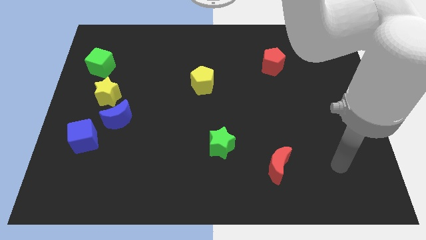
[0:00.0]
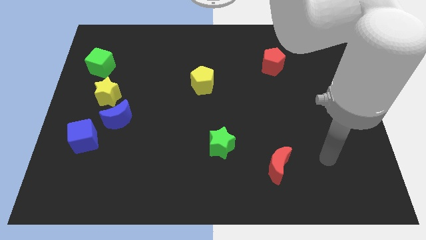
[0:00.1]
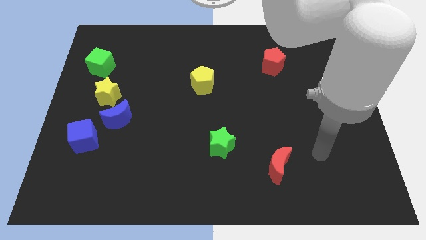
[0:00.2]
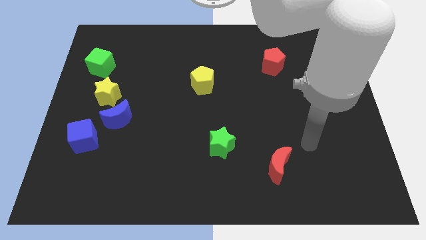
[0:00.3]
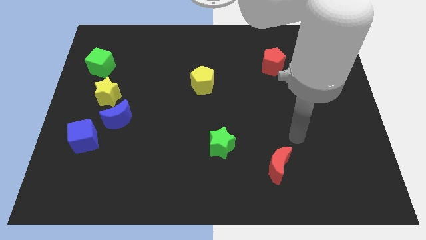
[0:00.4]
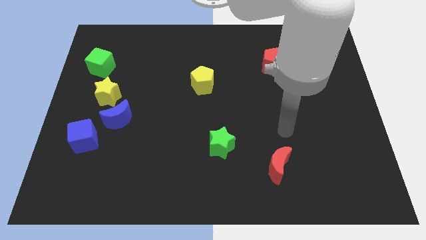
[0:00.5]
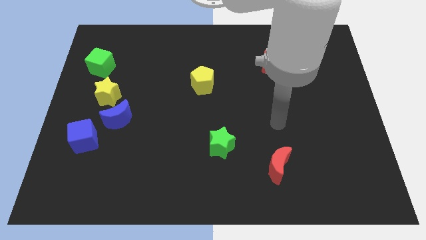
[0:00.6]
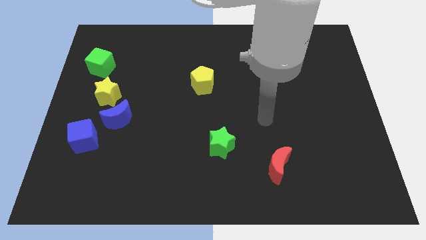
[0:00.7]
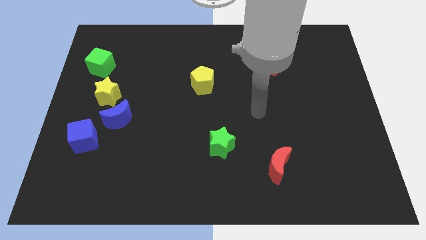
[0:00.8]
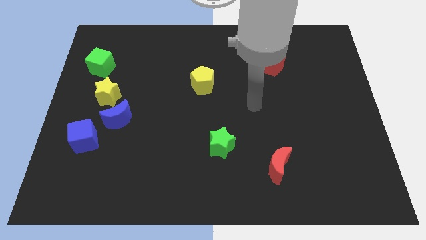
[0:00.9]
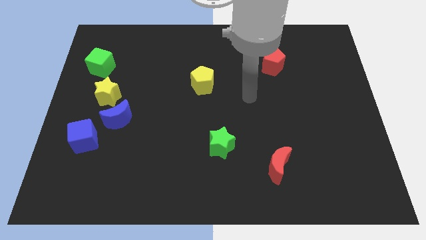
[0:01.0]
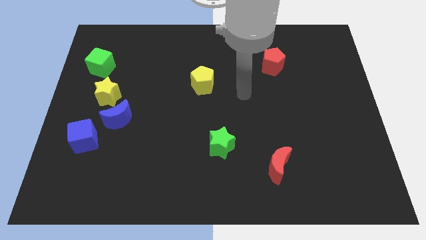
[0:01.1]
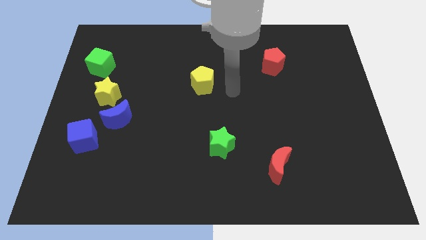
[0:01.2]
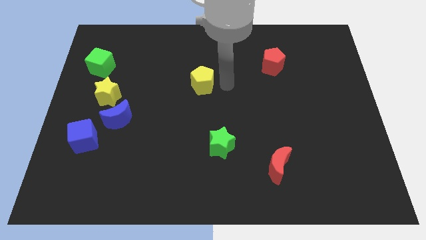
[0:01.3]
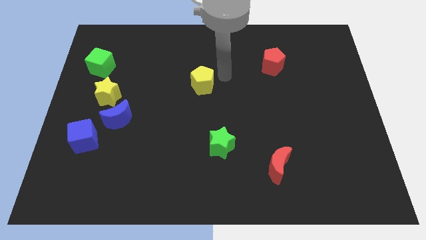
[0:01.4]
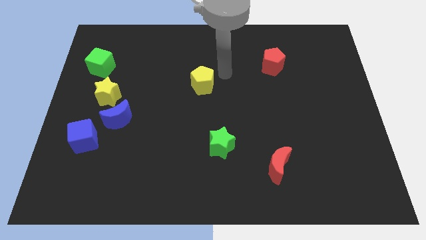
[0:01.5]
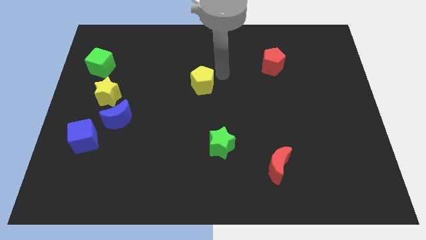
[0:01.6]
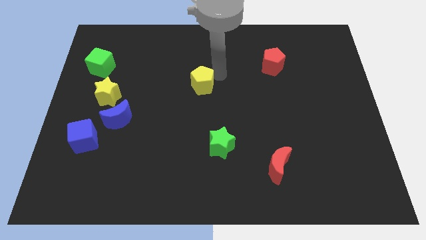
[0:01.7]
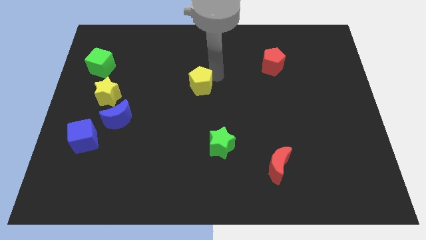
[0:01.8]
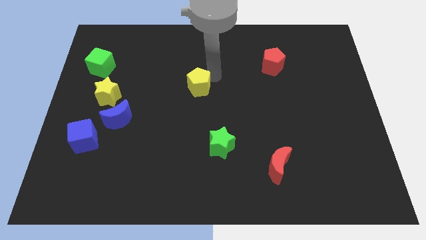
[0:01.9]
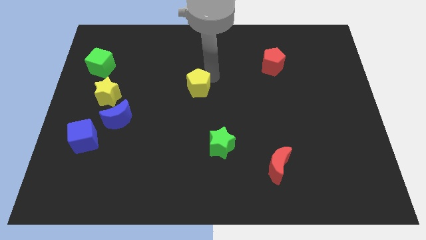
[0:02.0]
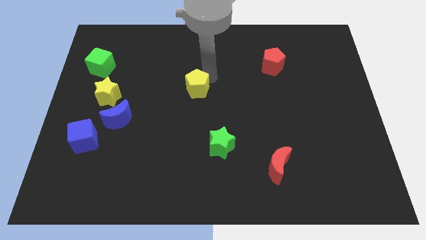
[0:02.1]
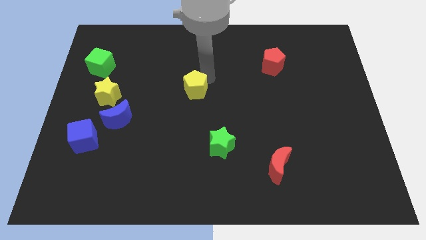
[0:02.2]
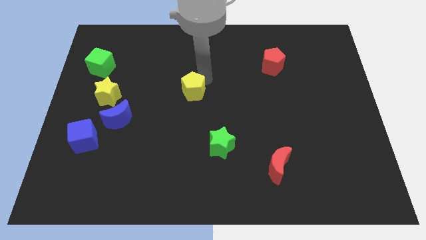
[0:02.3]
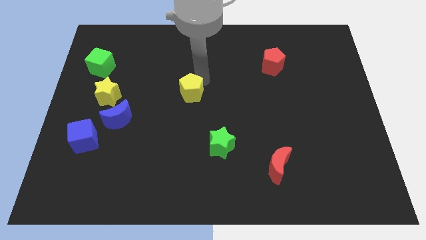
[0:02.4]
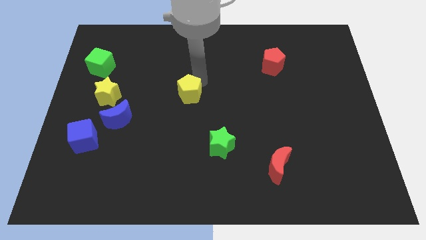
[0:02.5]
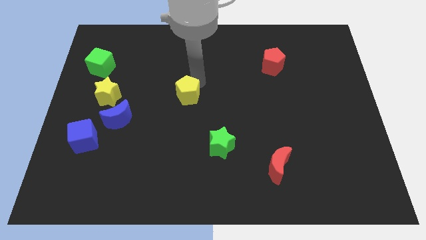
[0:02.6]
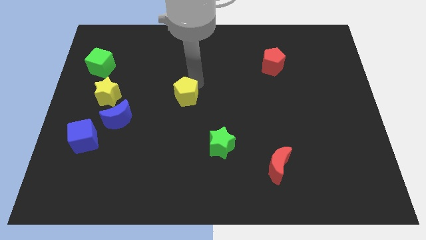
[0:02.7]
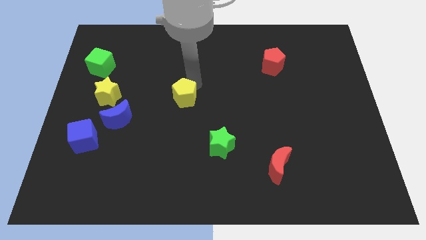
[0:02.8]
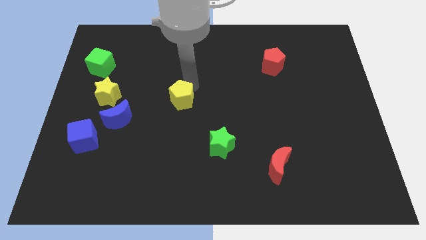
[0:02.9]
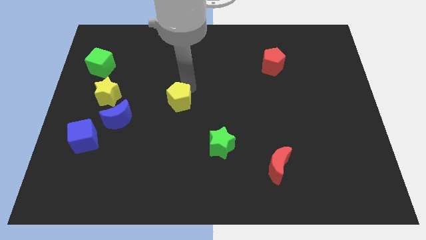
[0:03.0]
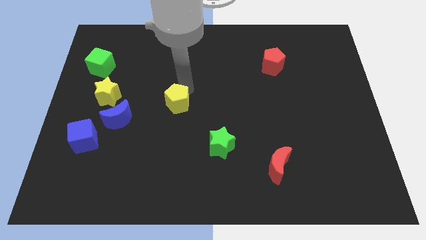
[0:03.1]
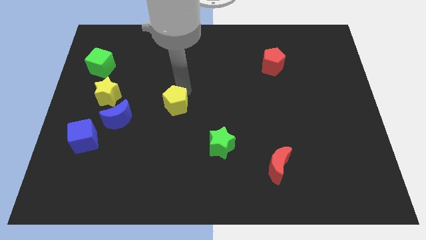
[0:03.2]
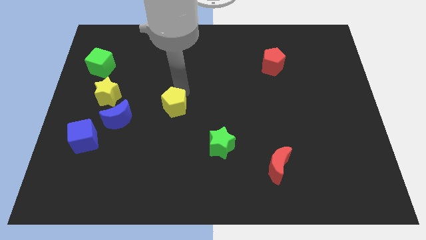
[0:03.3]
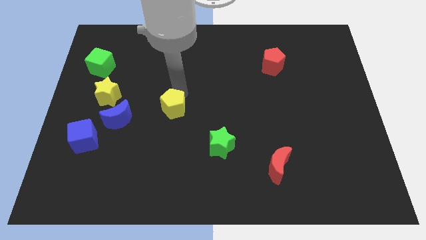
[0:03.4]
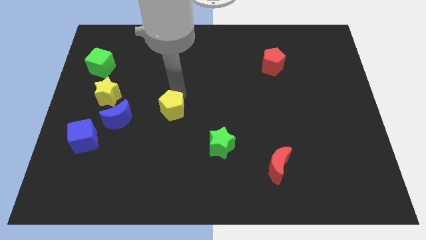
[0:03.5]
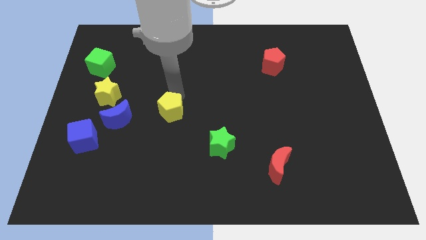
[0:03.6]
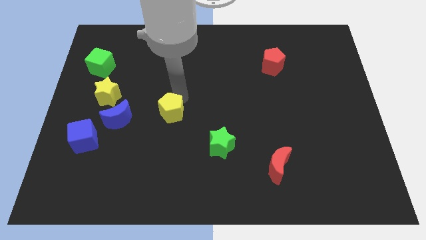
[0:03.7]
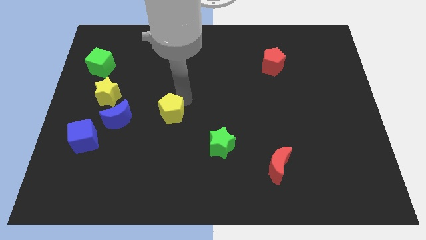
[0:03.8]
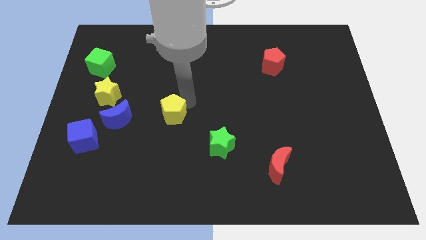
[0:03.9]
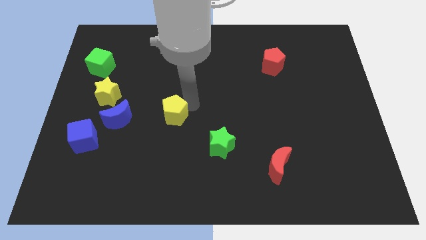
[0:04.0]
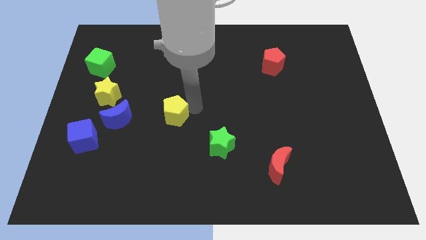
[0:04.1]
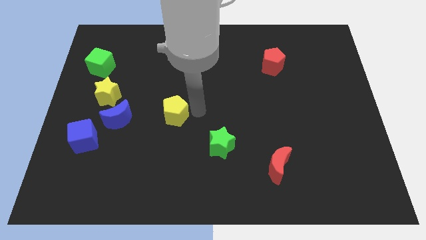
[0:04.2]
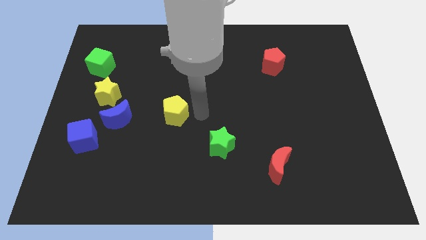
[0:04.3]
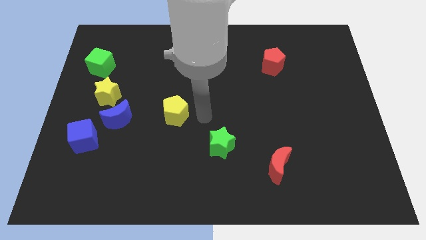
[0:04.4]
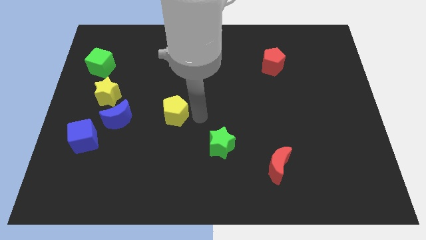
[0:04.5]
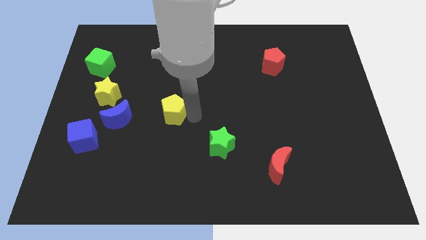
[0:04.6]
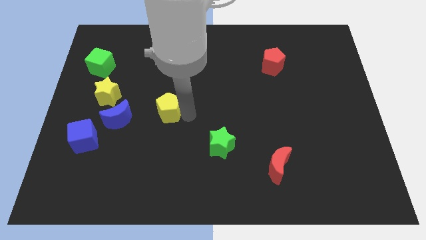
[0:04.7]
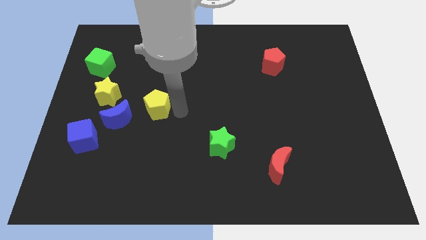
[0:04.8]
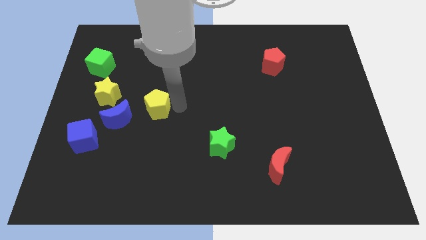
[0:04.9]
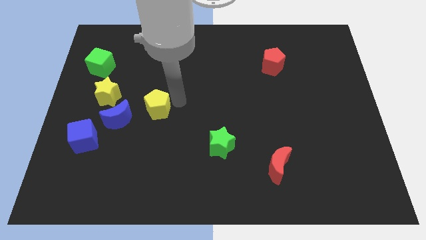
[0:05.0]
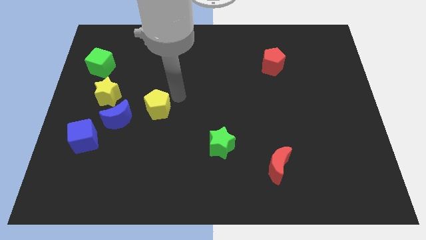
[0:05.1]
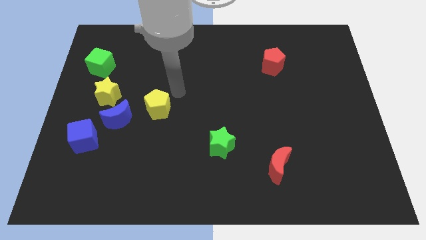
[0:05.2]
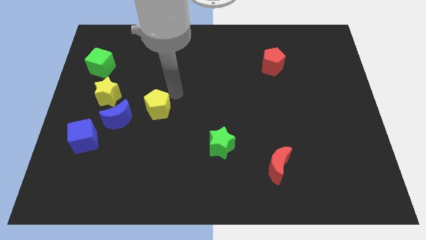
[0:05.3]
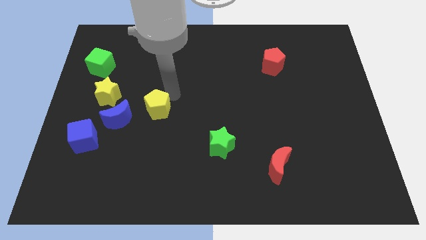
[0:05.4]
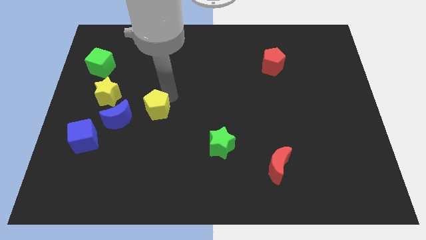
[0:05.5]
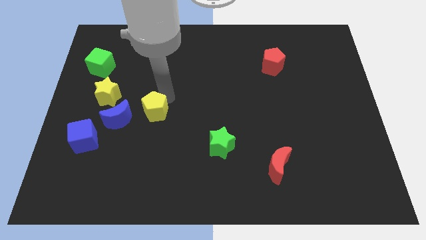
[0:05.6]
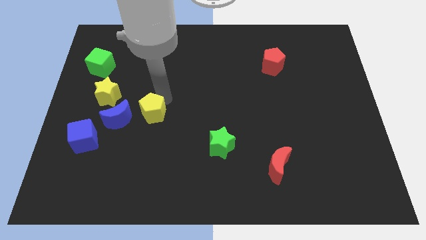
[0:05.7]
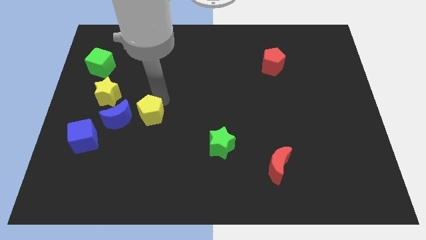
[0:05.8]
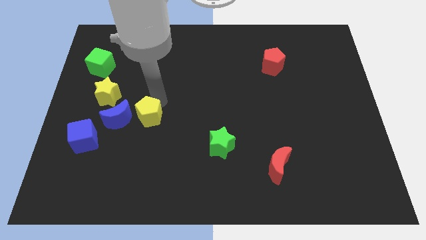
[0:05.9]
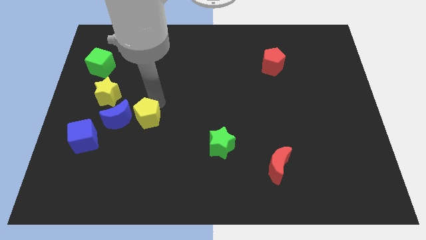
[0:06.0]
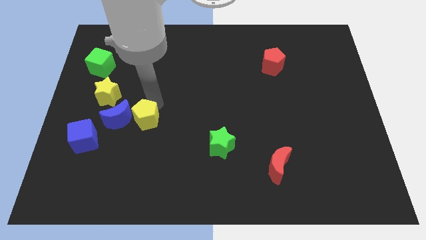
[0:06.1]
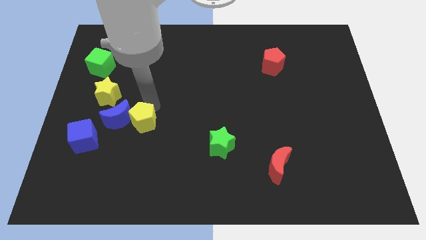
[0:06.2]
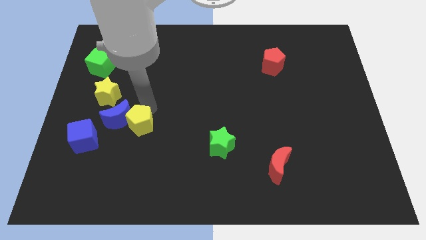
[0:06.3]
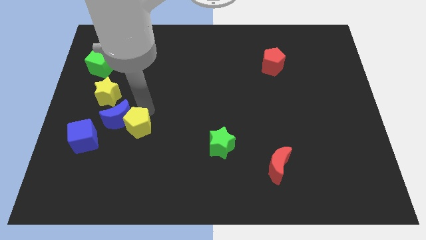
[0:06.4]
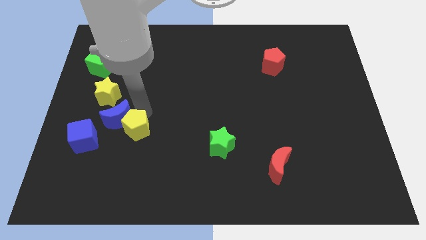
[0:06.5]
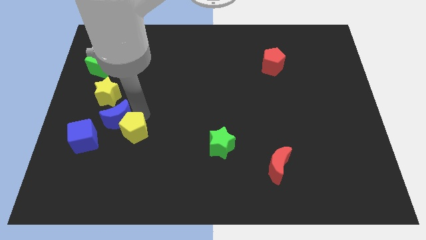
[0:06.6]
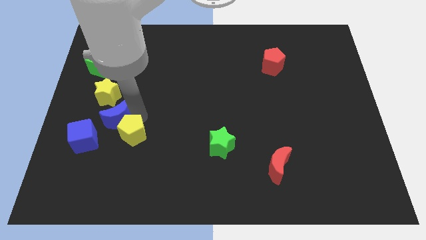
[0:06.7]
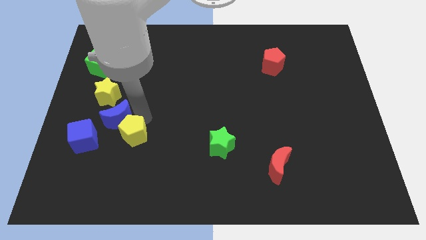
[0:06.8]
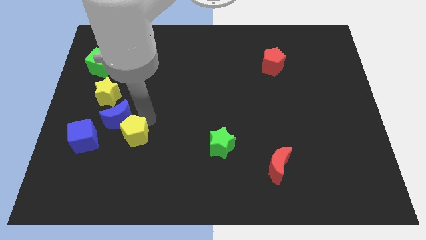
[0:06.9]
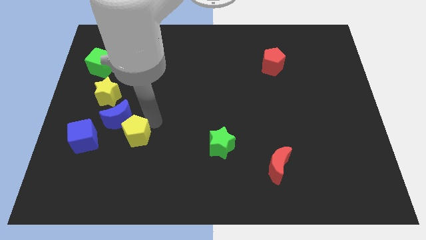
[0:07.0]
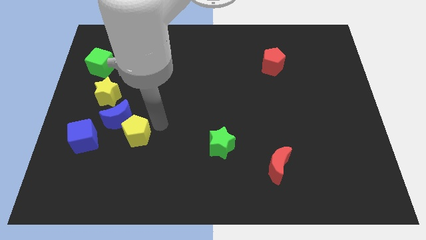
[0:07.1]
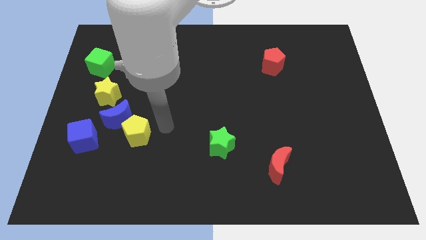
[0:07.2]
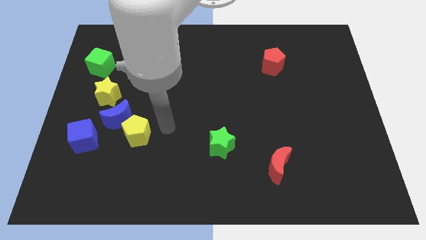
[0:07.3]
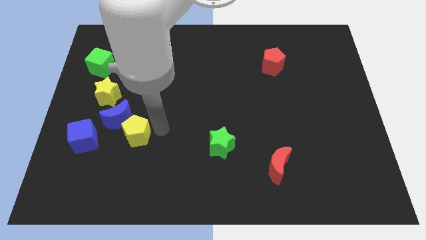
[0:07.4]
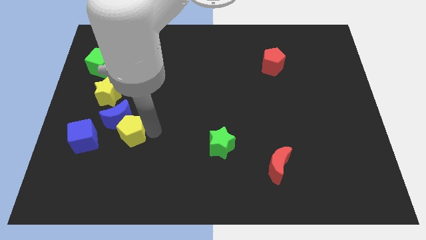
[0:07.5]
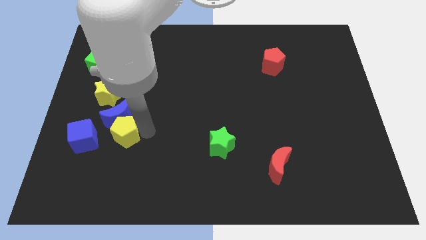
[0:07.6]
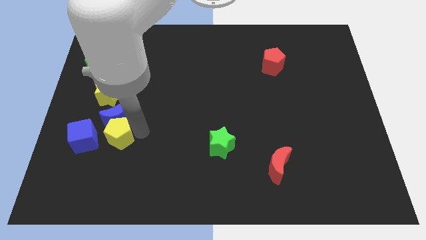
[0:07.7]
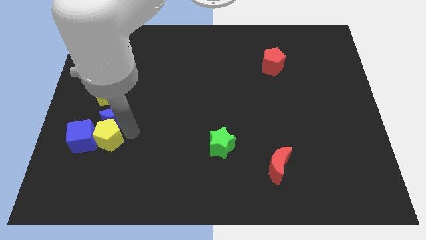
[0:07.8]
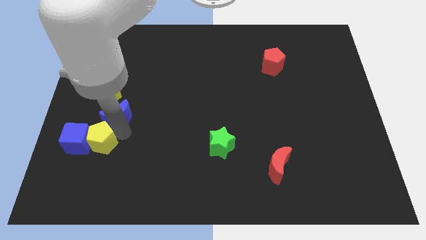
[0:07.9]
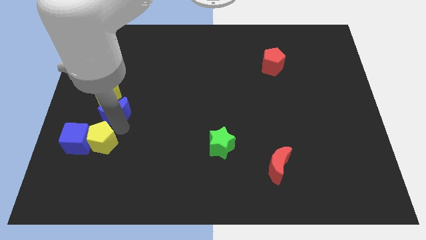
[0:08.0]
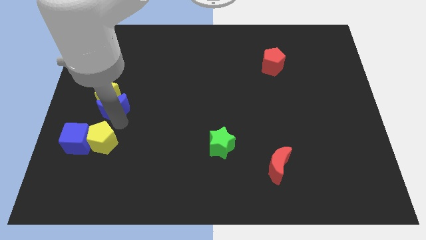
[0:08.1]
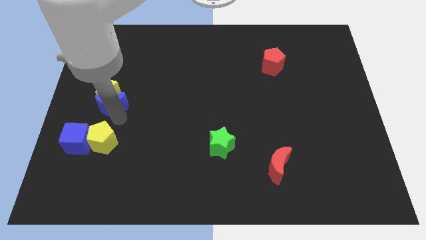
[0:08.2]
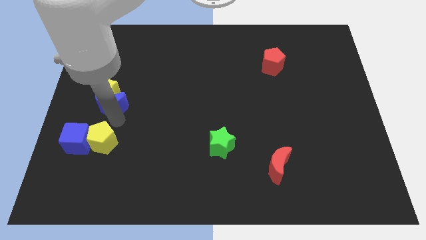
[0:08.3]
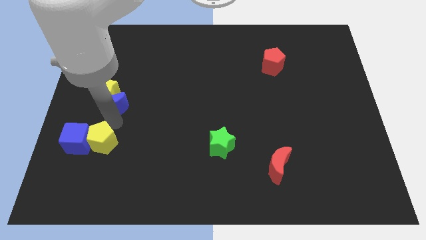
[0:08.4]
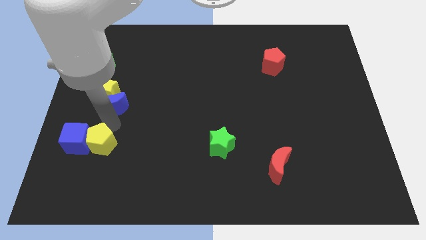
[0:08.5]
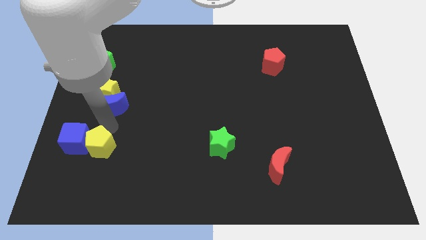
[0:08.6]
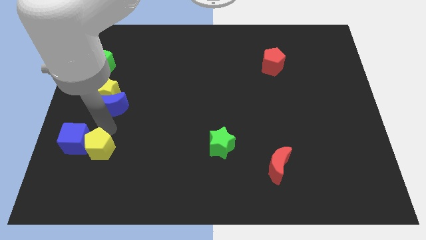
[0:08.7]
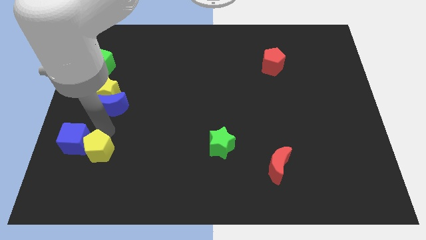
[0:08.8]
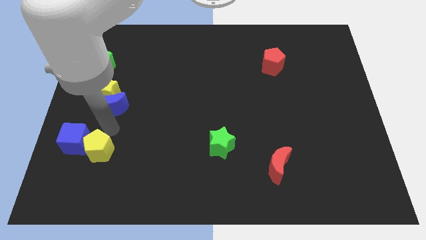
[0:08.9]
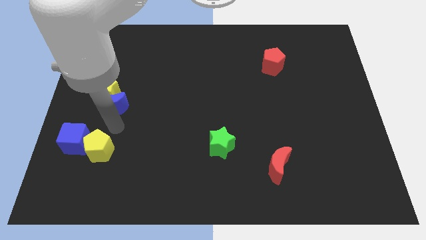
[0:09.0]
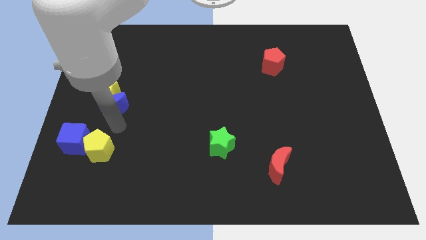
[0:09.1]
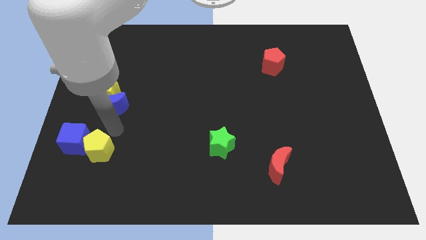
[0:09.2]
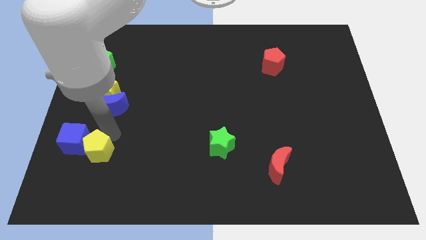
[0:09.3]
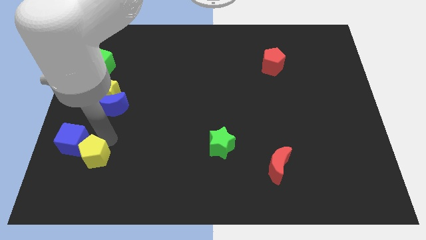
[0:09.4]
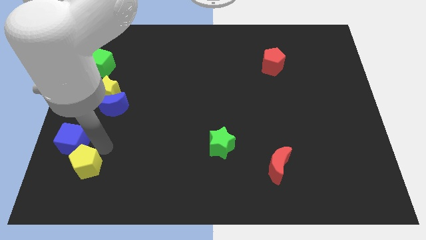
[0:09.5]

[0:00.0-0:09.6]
push the yellow pentagon to the bottom of the blue cube
